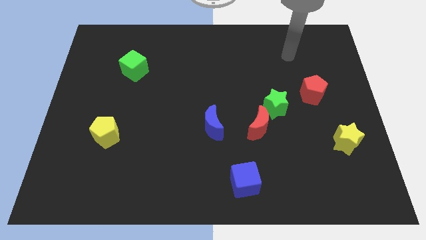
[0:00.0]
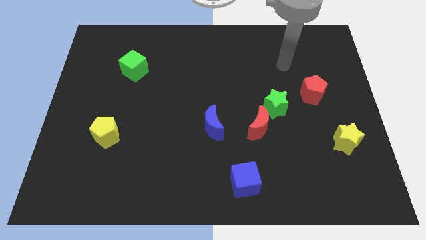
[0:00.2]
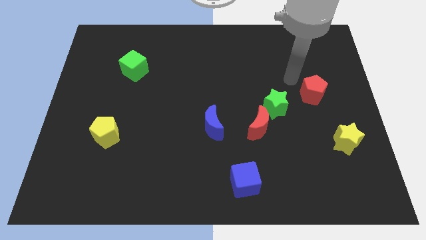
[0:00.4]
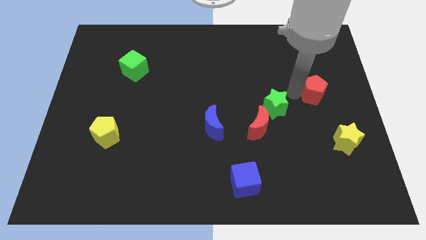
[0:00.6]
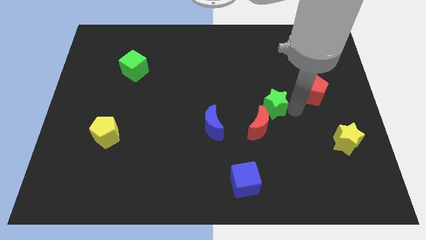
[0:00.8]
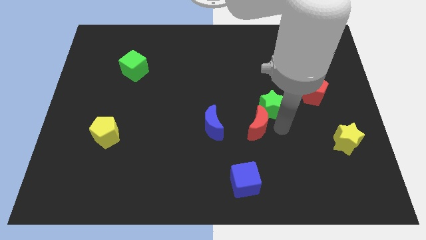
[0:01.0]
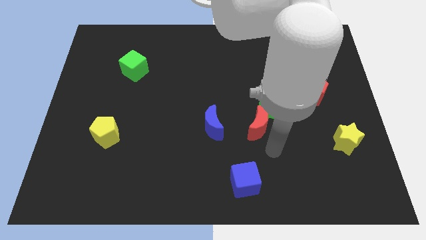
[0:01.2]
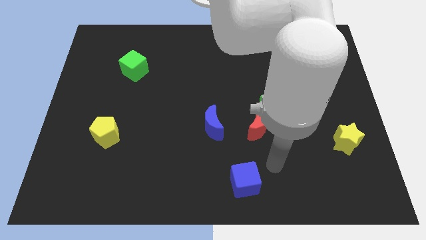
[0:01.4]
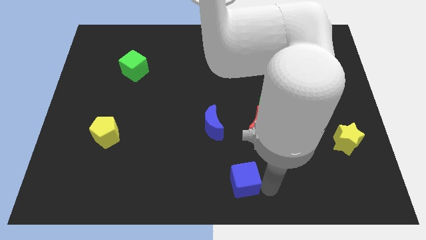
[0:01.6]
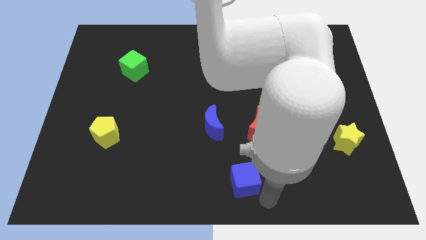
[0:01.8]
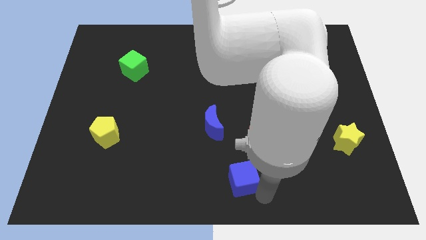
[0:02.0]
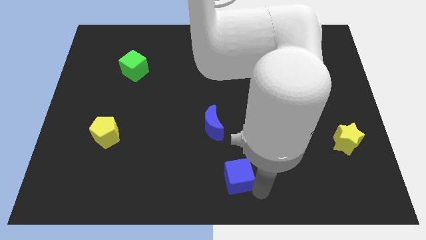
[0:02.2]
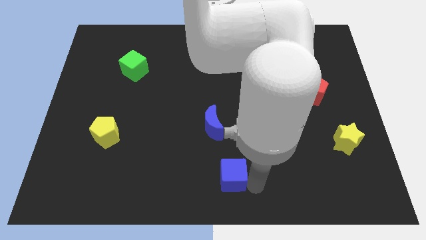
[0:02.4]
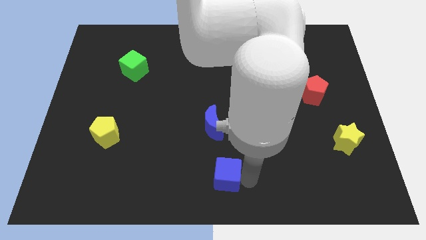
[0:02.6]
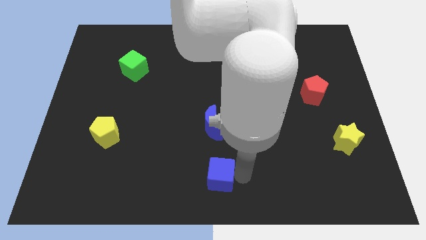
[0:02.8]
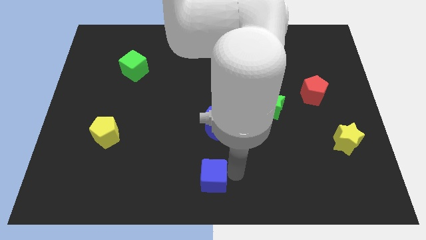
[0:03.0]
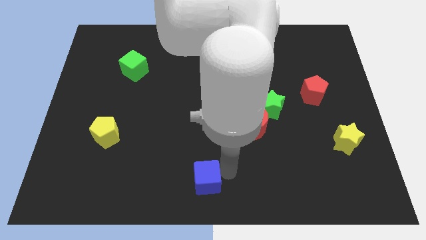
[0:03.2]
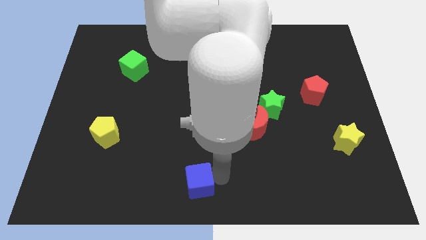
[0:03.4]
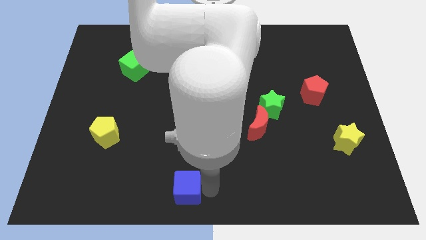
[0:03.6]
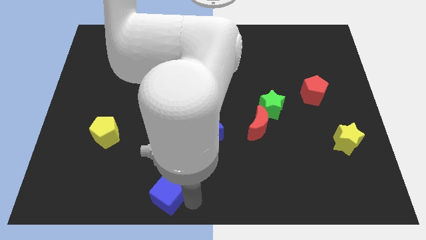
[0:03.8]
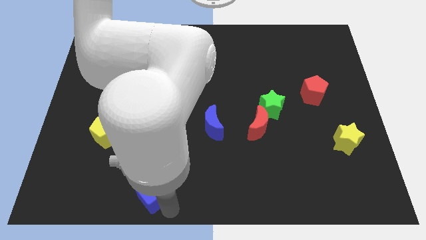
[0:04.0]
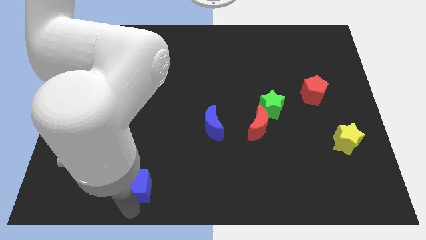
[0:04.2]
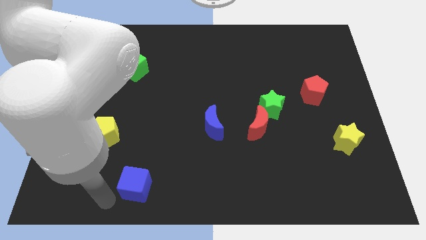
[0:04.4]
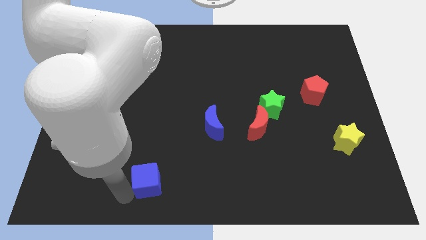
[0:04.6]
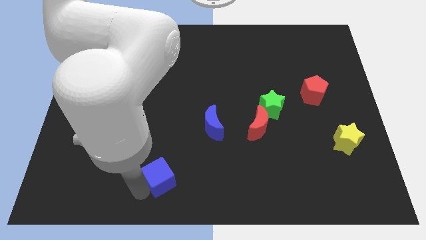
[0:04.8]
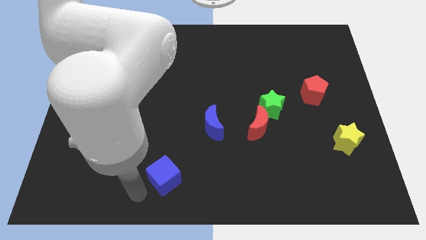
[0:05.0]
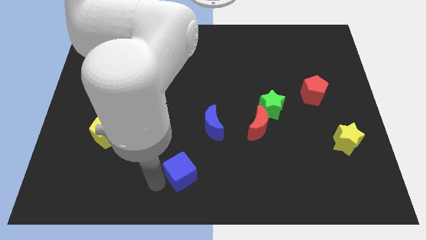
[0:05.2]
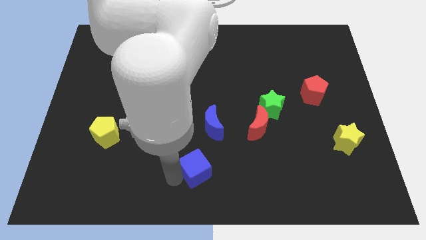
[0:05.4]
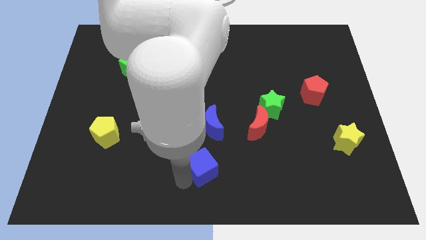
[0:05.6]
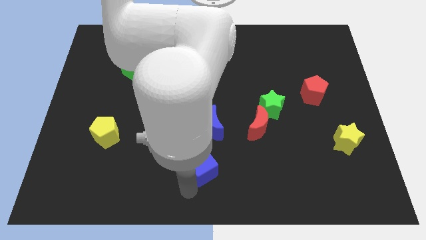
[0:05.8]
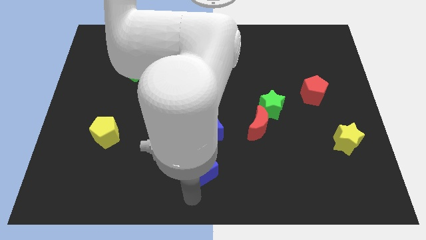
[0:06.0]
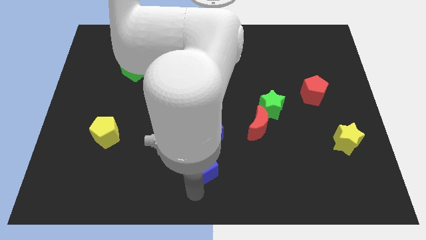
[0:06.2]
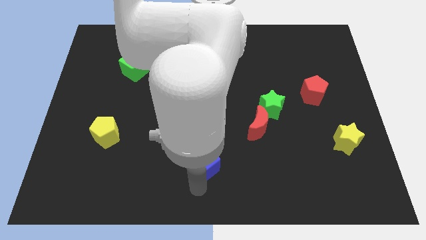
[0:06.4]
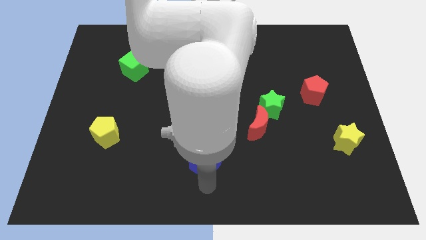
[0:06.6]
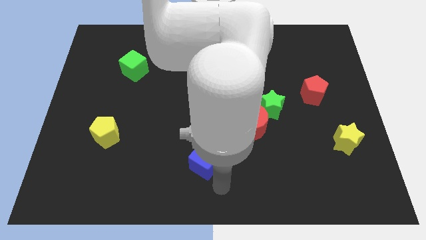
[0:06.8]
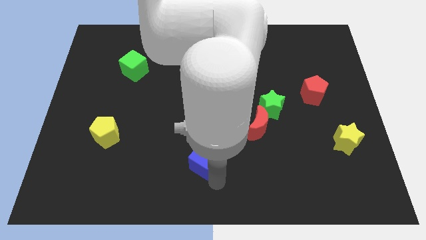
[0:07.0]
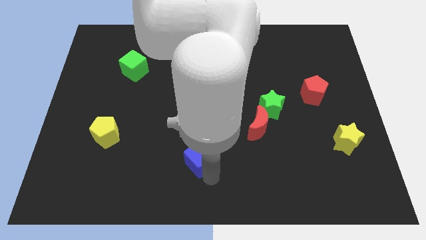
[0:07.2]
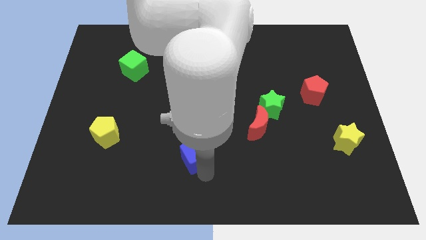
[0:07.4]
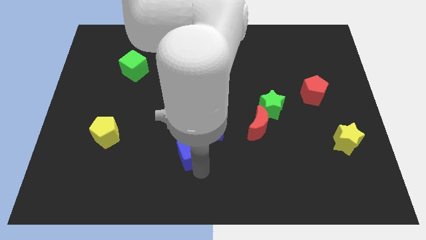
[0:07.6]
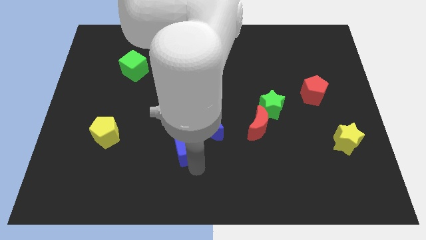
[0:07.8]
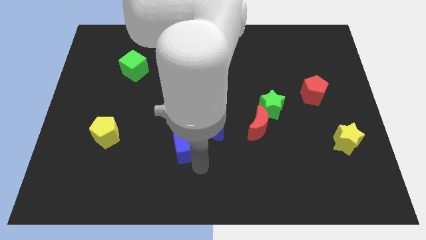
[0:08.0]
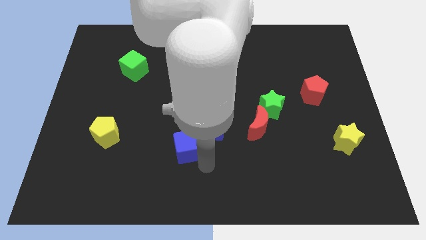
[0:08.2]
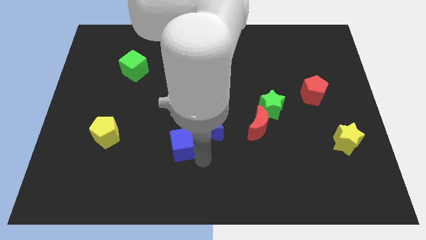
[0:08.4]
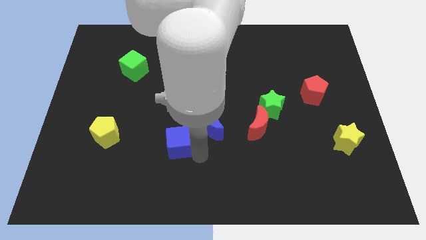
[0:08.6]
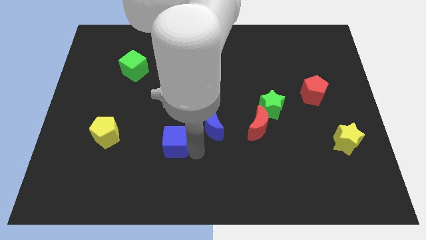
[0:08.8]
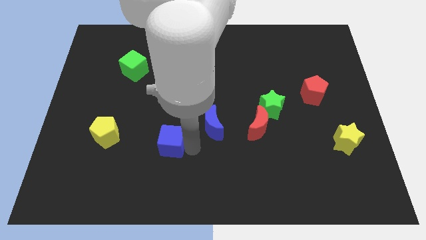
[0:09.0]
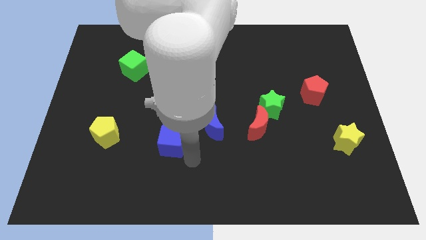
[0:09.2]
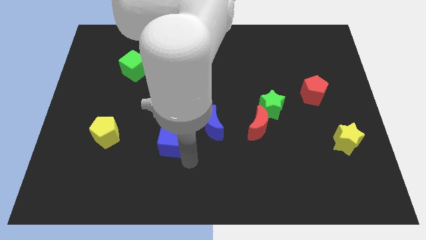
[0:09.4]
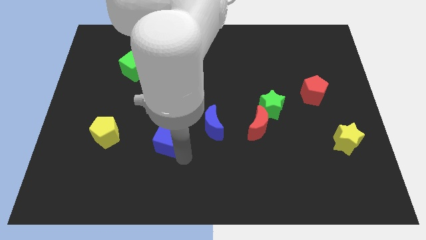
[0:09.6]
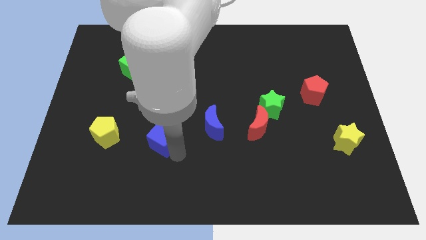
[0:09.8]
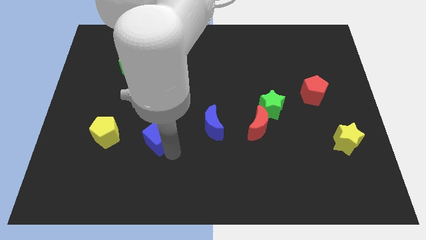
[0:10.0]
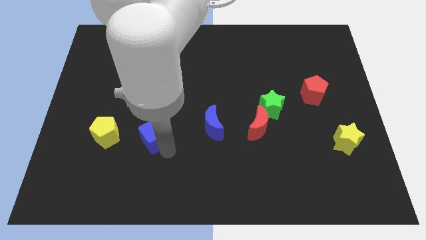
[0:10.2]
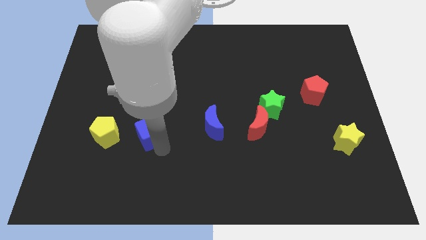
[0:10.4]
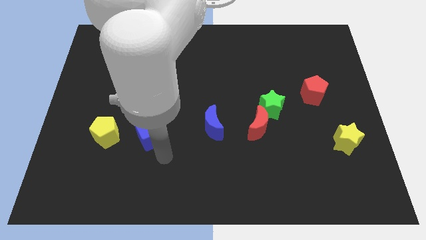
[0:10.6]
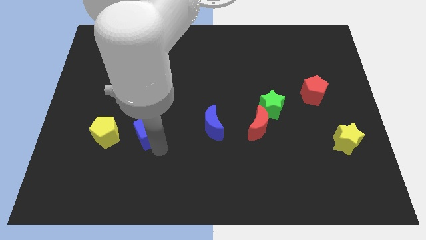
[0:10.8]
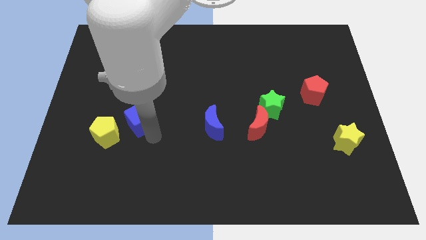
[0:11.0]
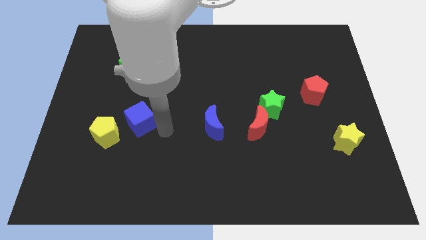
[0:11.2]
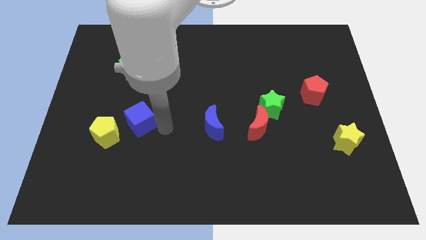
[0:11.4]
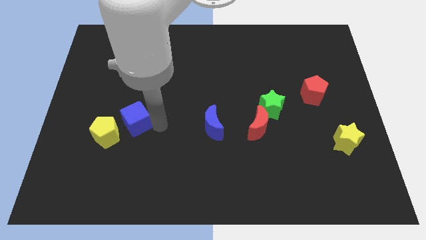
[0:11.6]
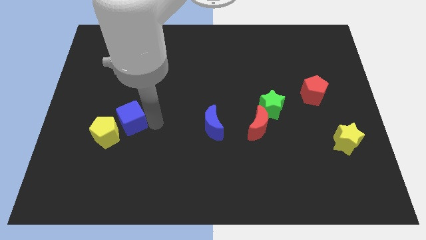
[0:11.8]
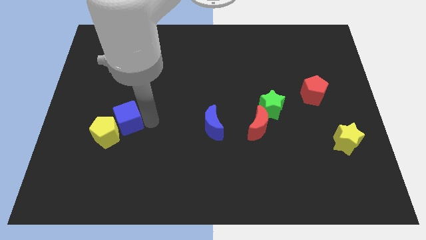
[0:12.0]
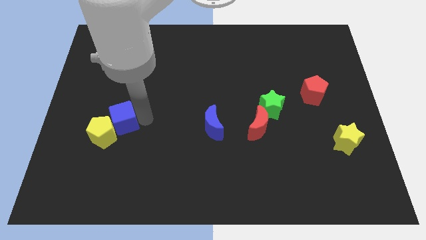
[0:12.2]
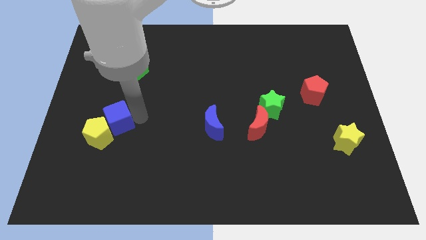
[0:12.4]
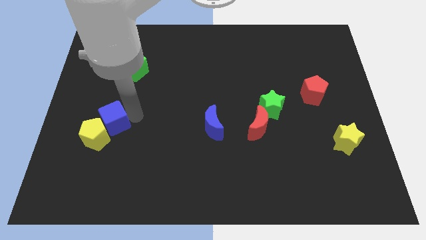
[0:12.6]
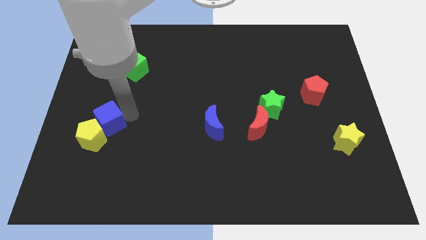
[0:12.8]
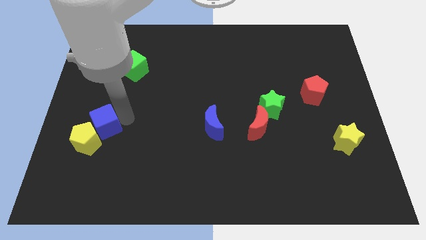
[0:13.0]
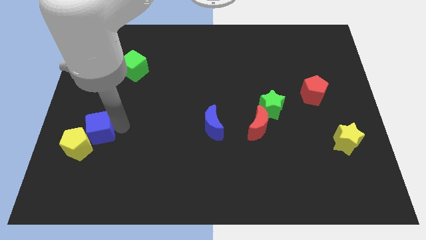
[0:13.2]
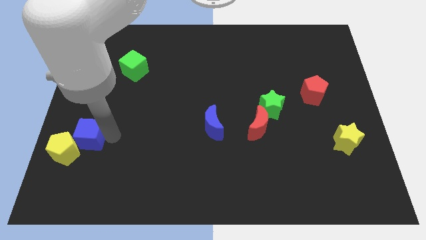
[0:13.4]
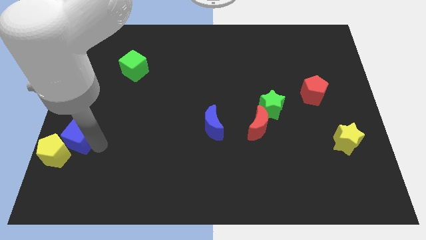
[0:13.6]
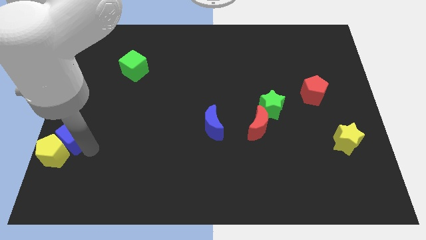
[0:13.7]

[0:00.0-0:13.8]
slide the blue cube to the left side of the board
